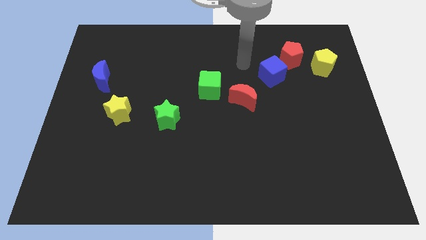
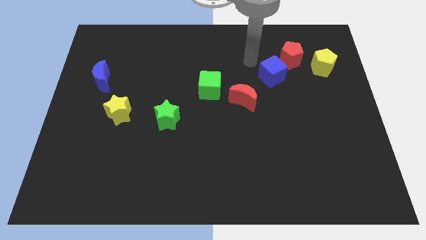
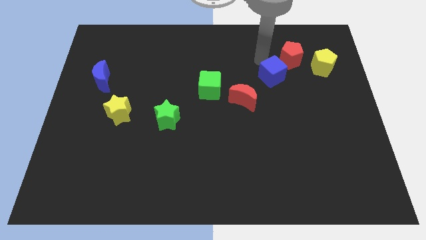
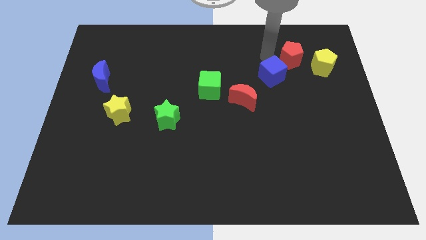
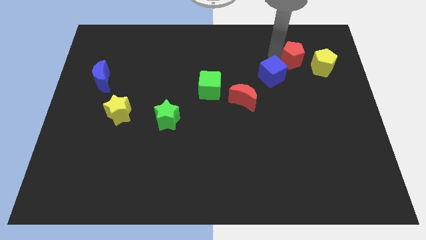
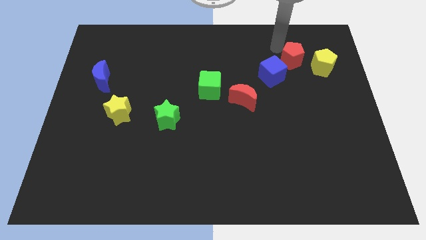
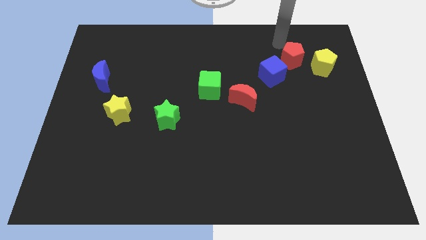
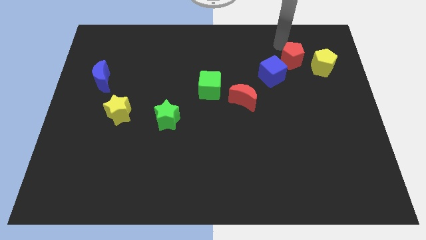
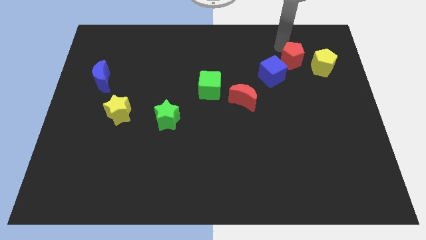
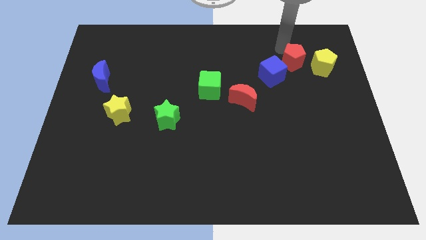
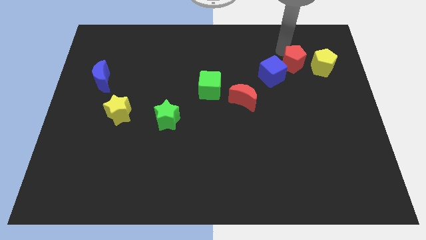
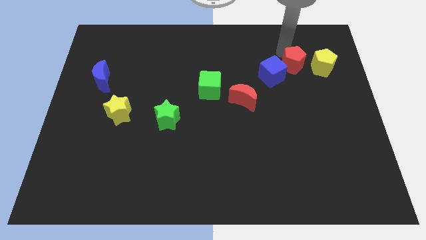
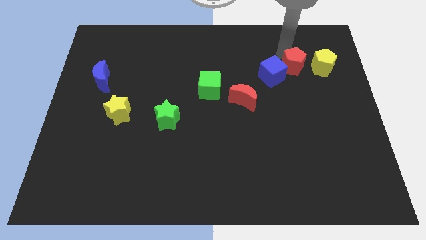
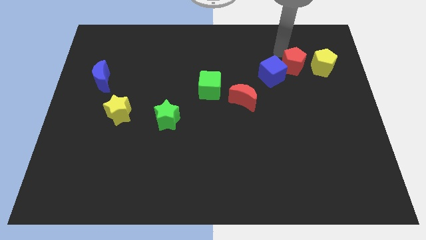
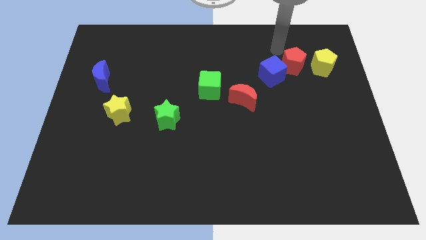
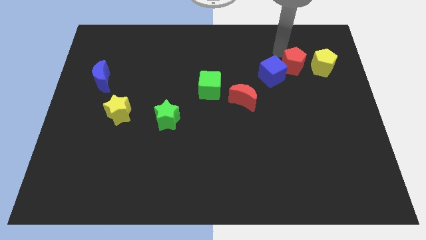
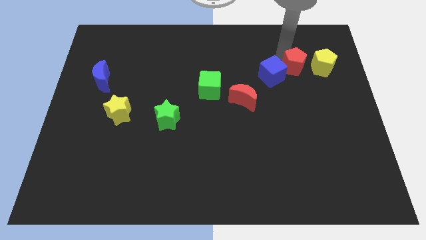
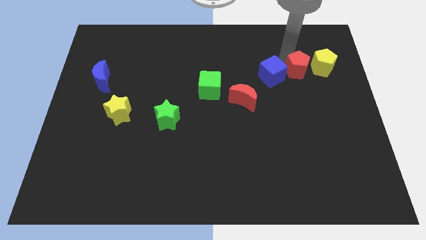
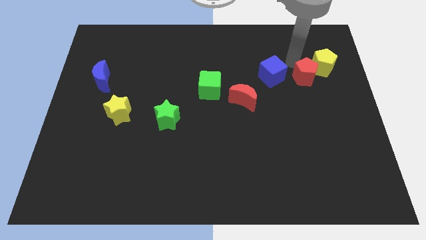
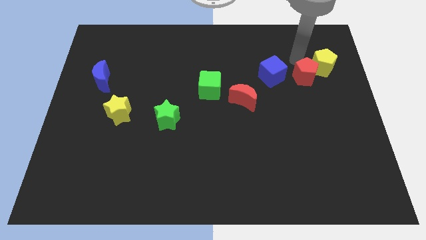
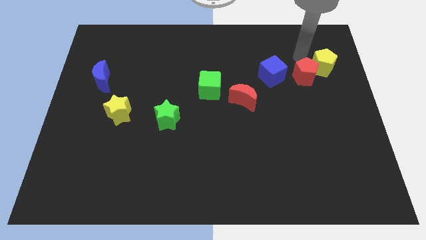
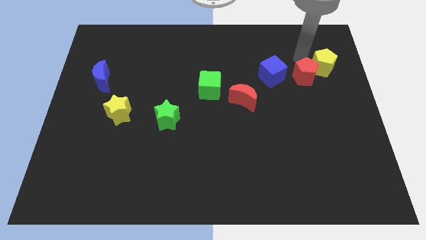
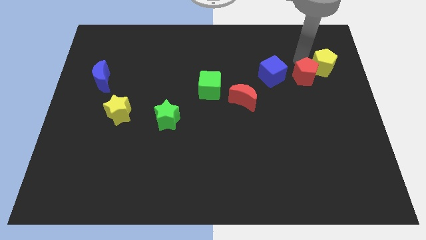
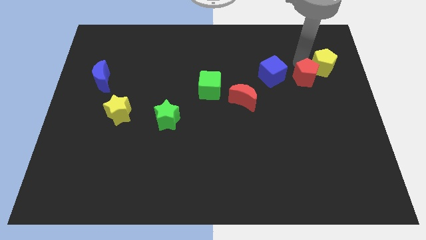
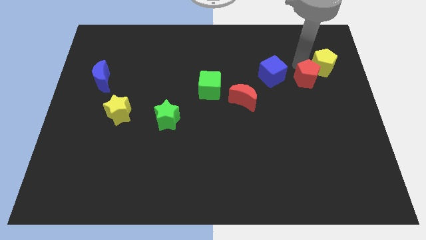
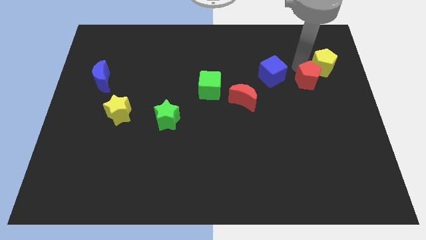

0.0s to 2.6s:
slightly push the red pentagon downwards

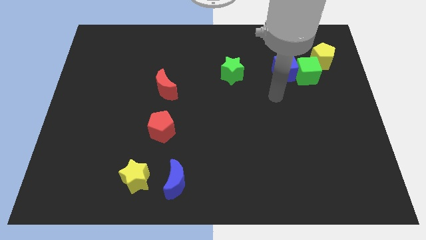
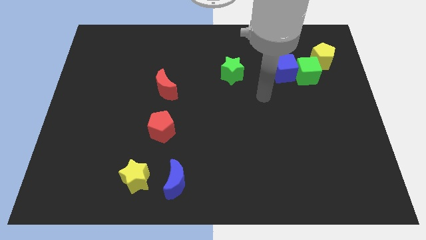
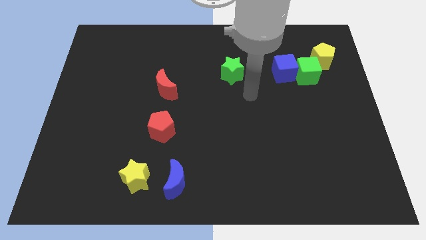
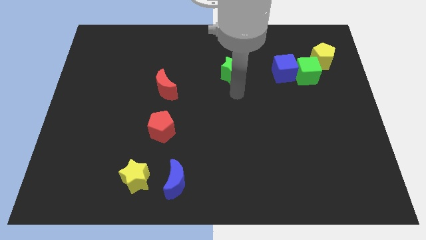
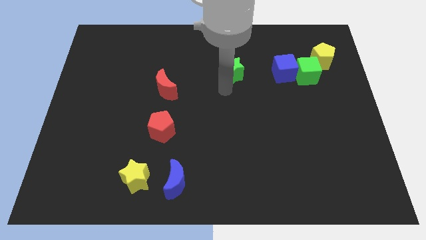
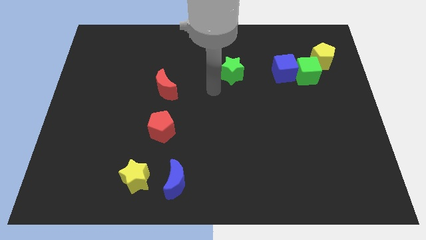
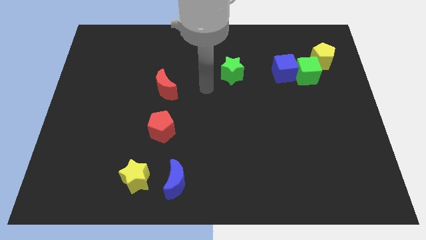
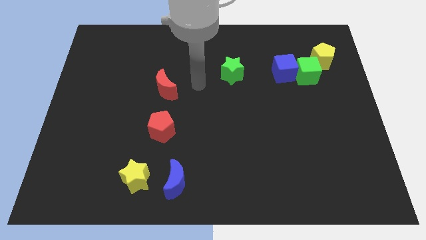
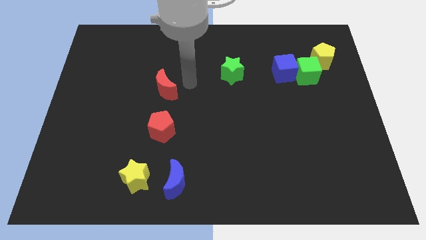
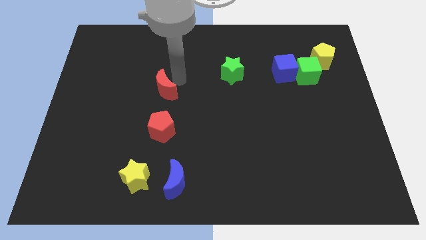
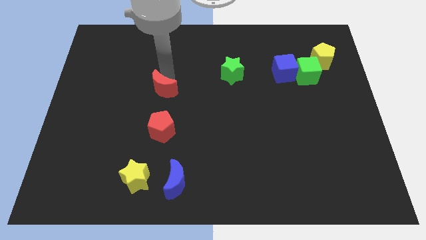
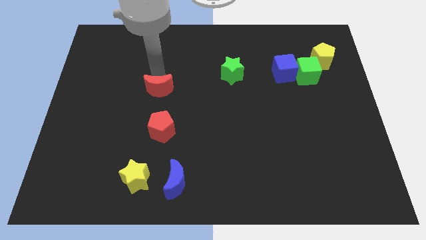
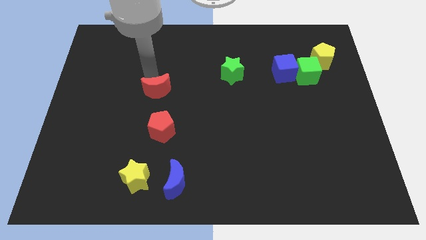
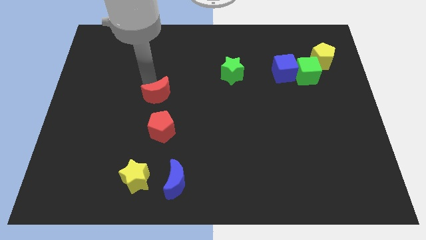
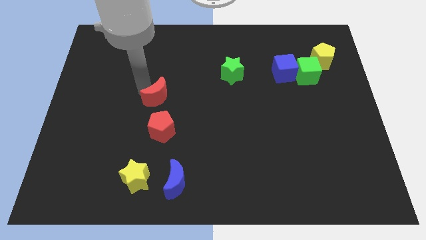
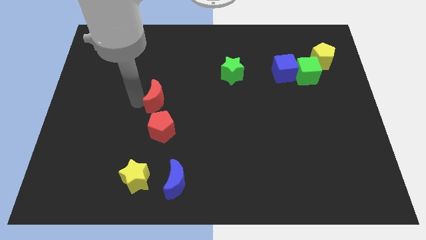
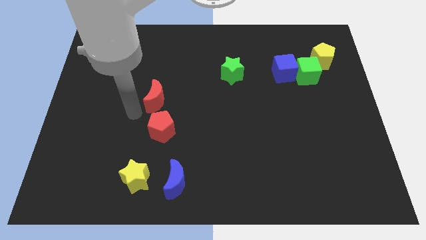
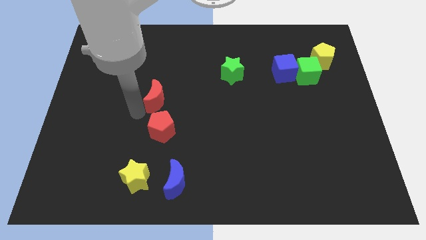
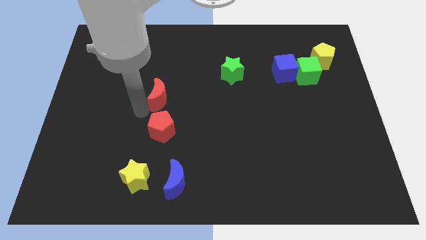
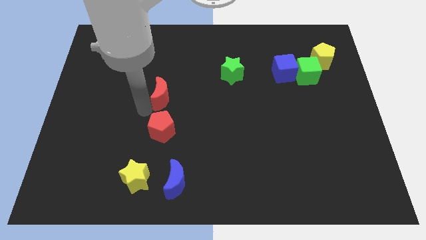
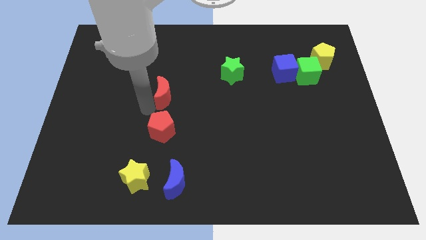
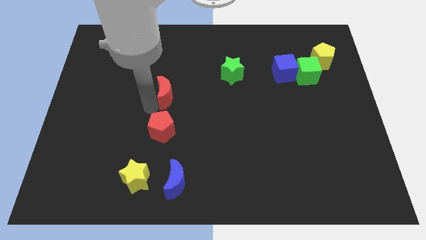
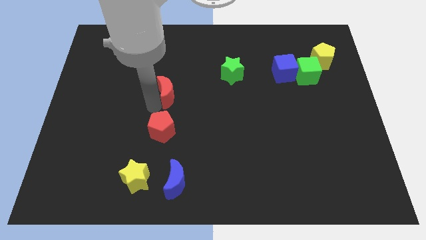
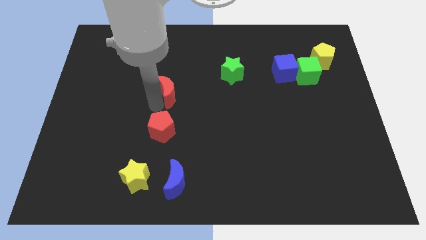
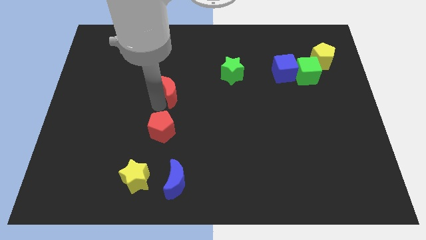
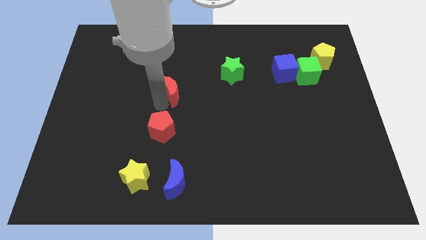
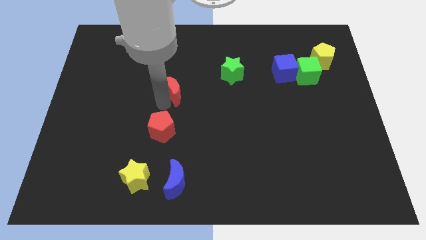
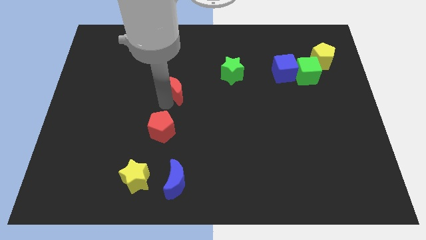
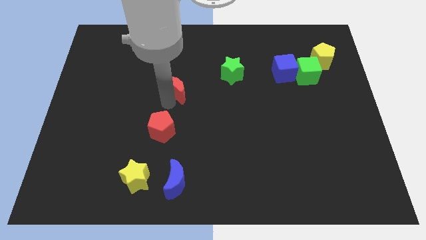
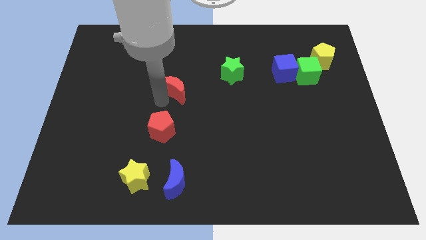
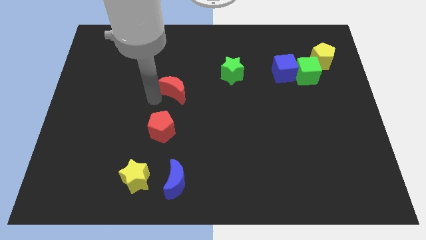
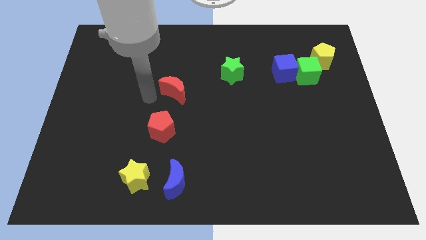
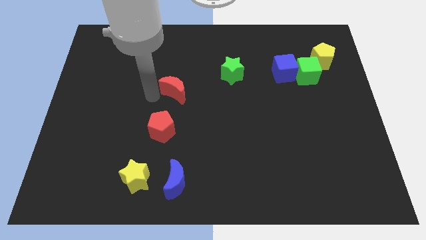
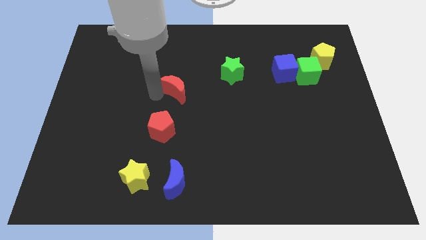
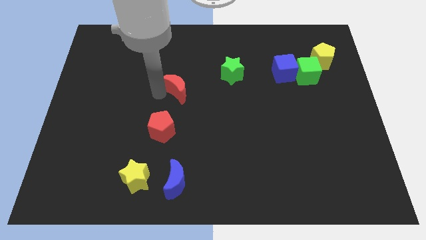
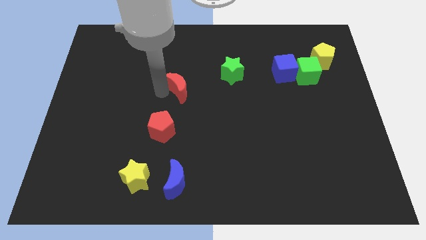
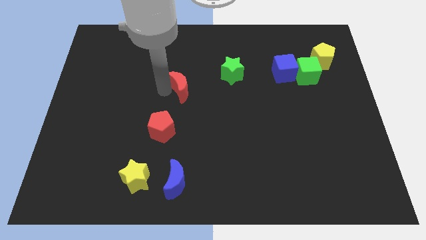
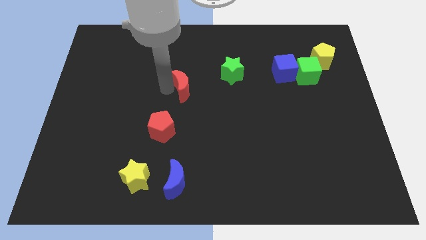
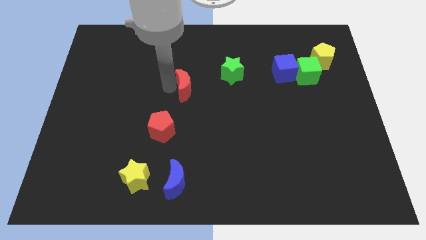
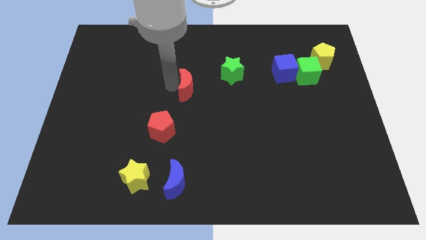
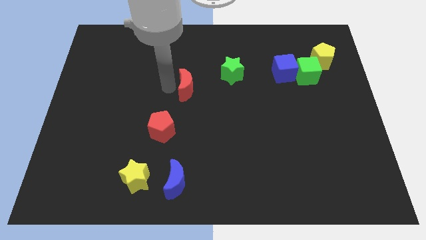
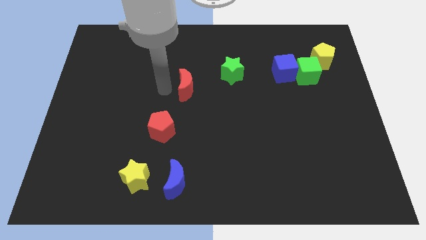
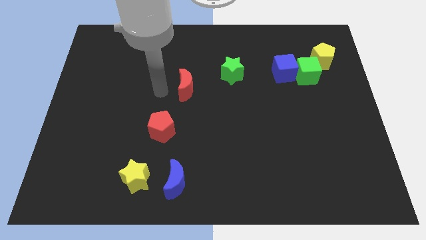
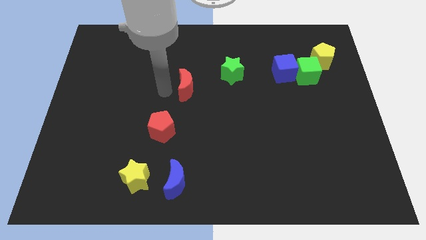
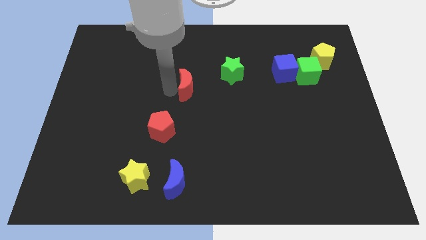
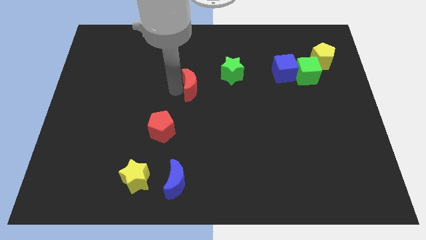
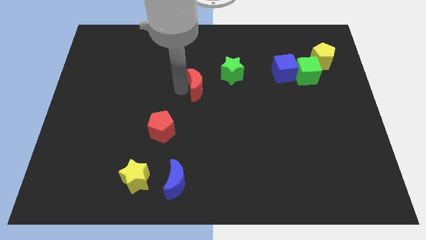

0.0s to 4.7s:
push the red moon to the right a bit

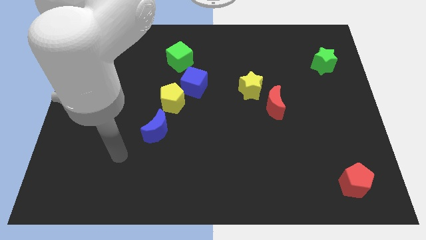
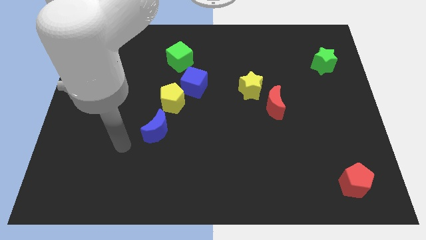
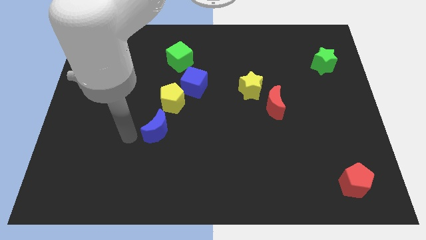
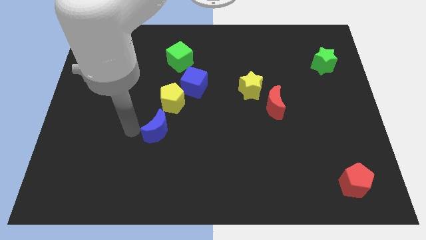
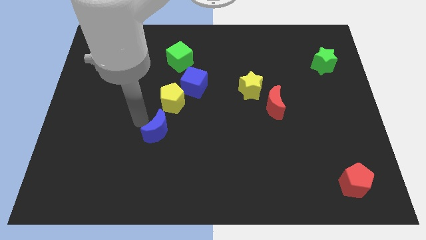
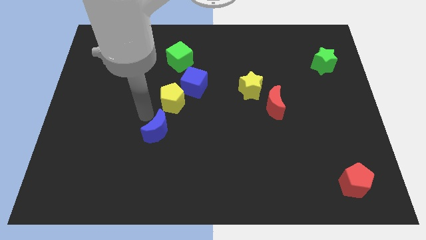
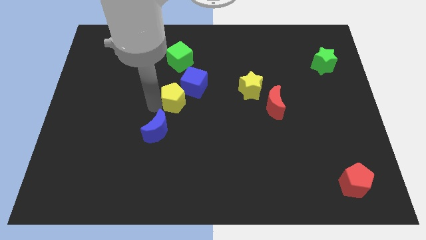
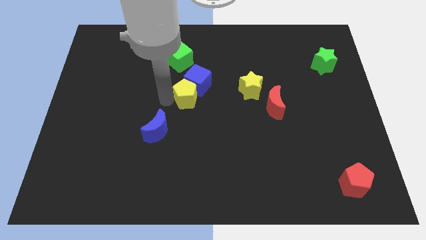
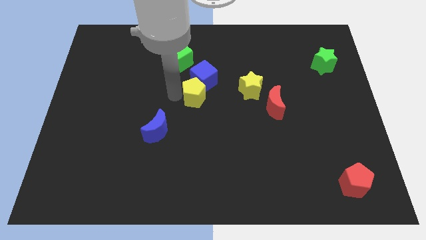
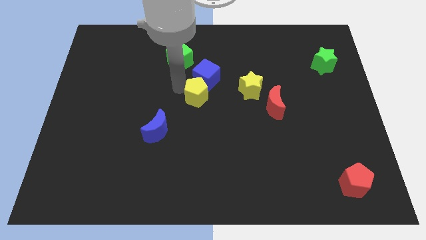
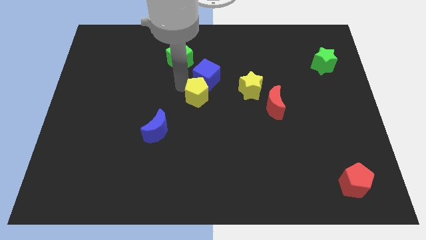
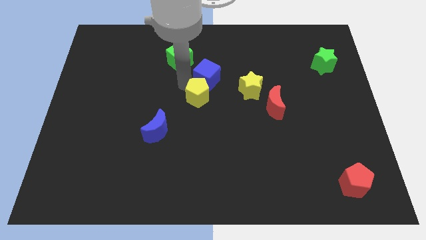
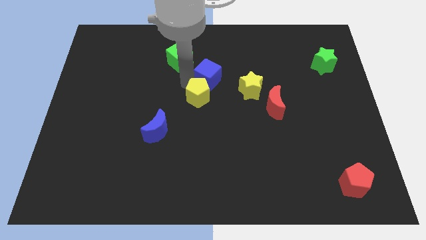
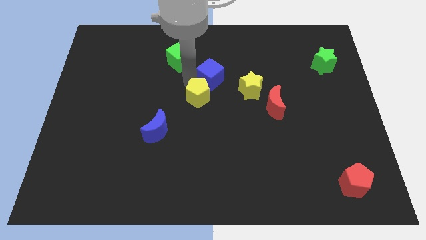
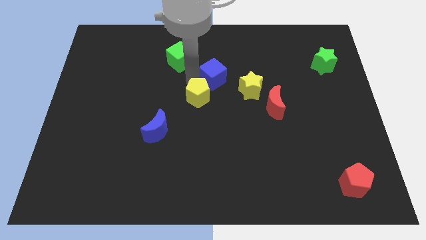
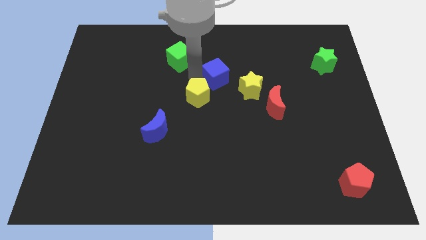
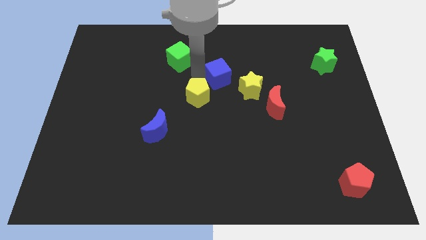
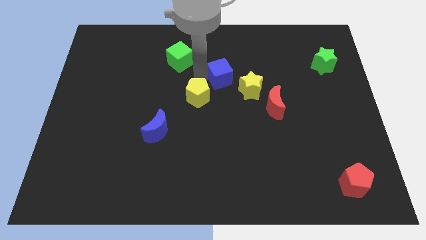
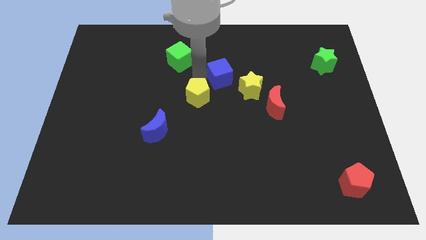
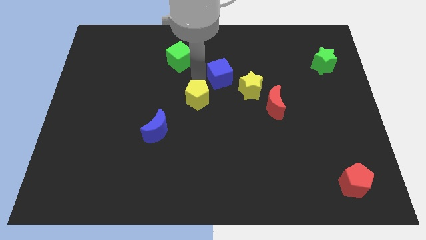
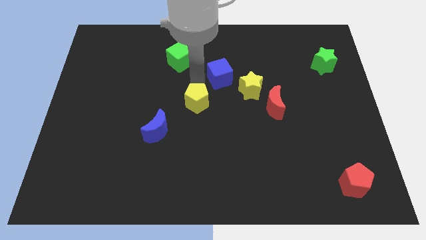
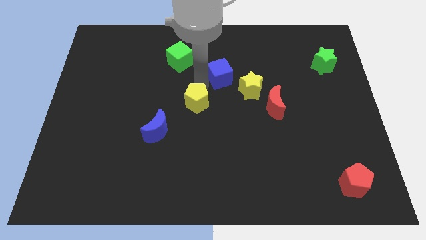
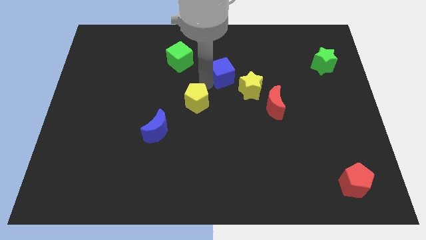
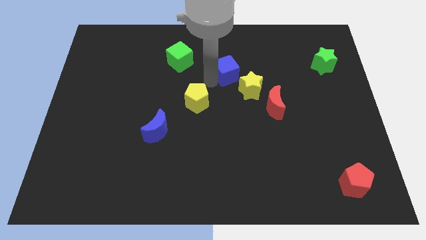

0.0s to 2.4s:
slightly push the blue cube to the right
